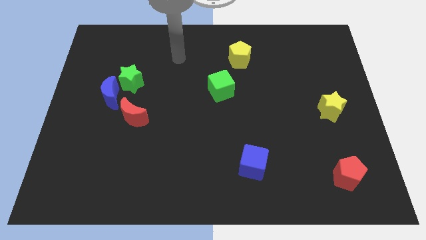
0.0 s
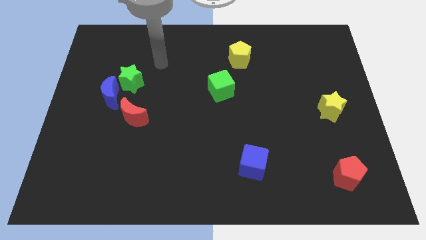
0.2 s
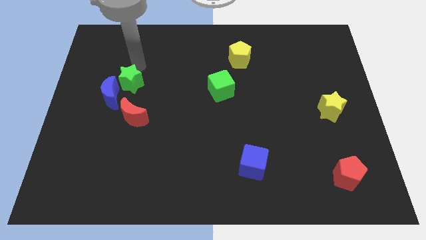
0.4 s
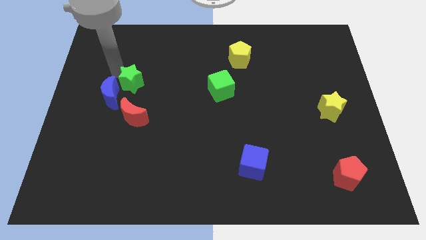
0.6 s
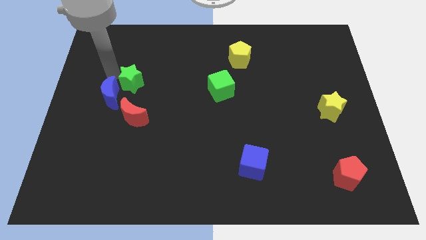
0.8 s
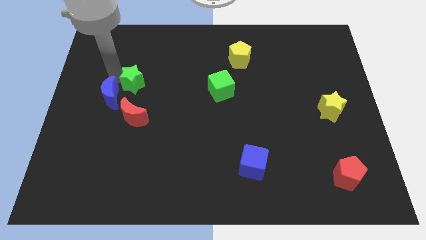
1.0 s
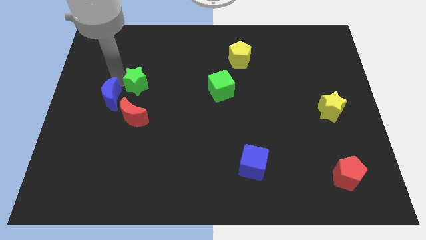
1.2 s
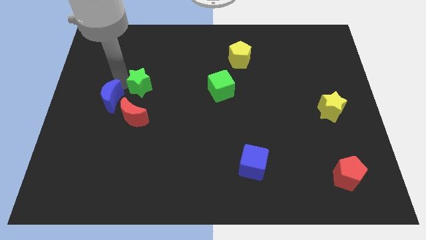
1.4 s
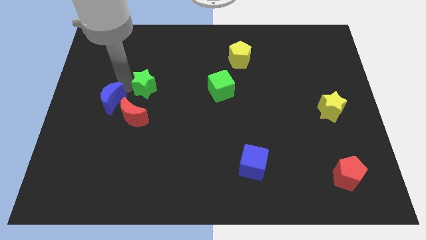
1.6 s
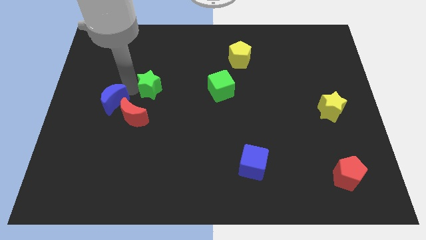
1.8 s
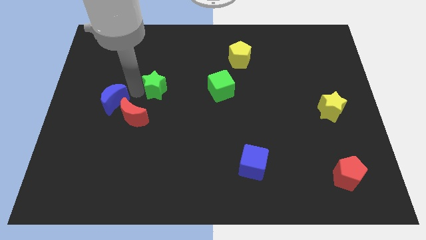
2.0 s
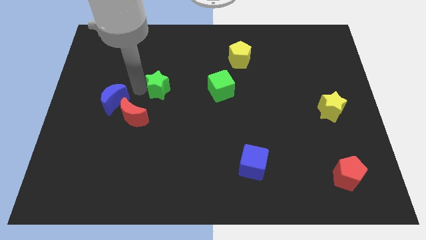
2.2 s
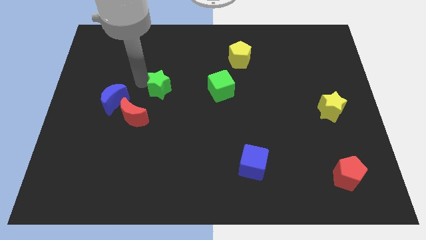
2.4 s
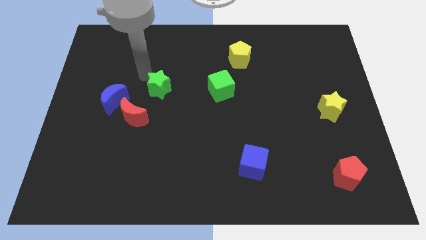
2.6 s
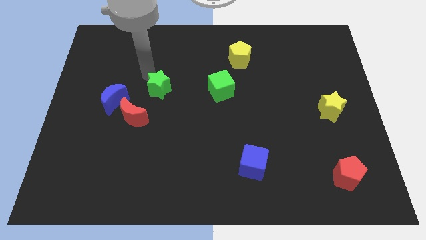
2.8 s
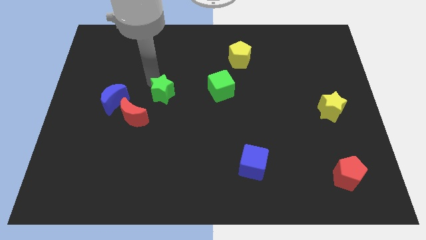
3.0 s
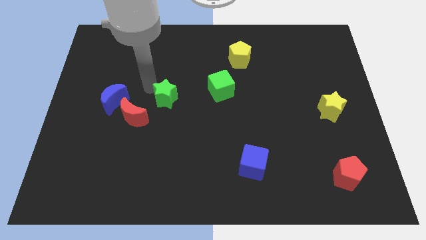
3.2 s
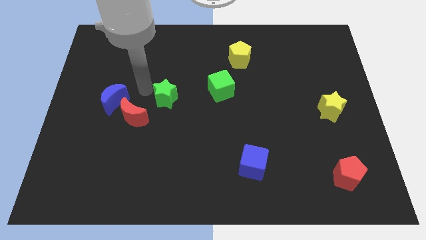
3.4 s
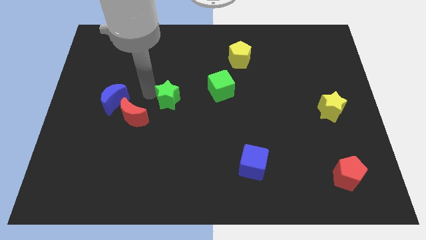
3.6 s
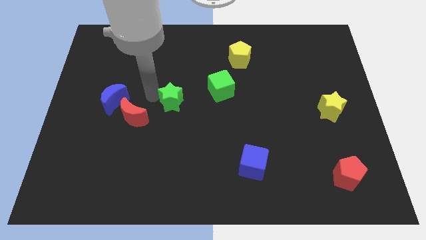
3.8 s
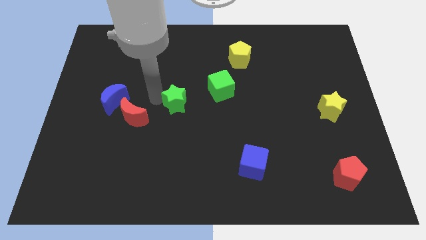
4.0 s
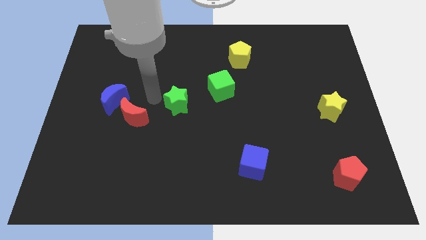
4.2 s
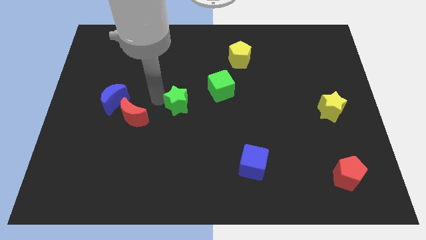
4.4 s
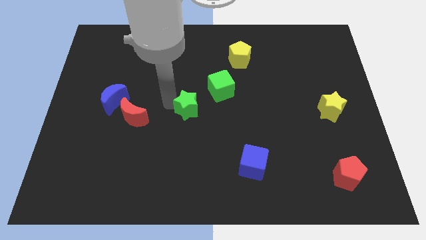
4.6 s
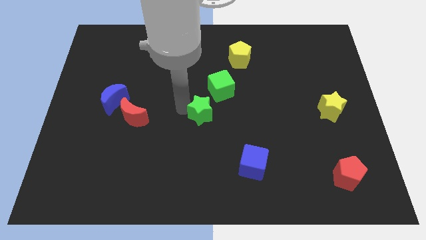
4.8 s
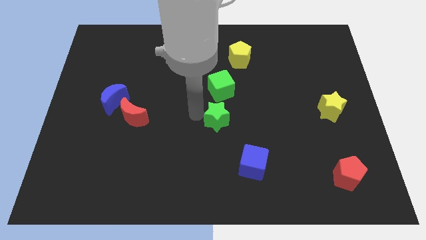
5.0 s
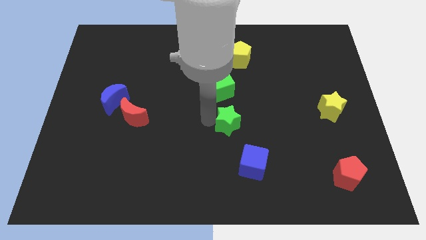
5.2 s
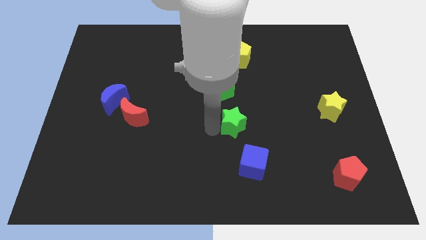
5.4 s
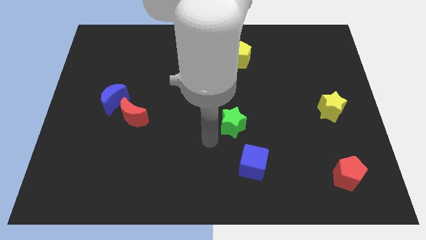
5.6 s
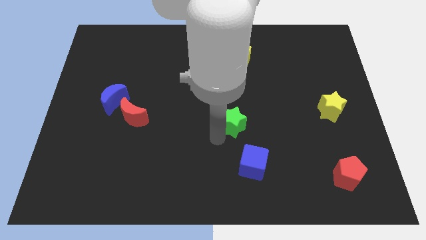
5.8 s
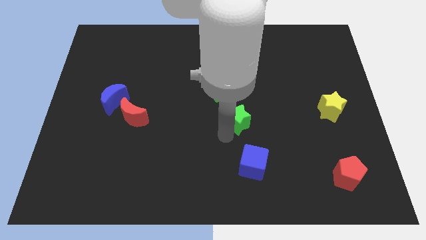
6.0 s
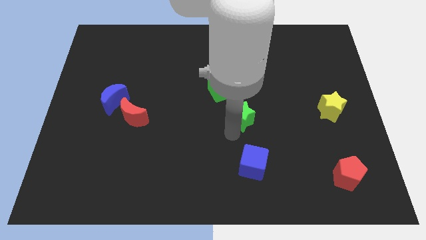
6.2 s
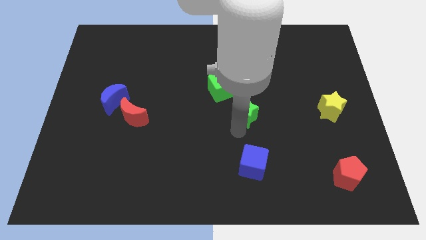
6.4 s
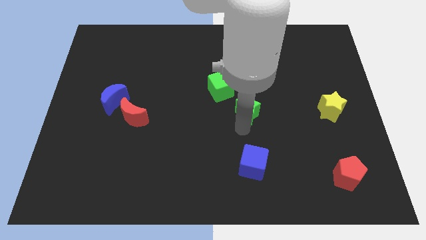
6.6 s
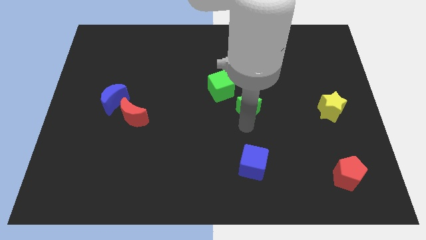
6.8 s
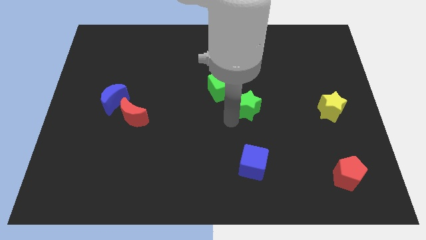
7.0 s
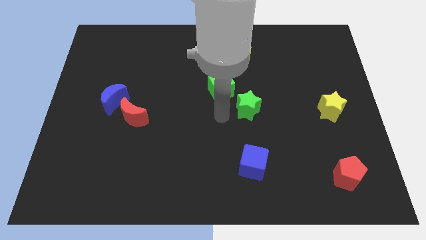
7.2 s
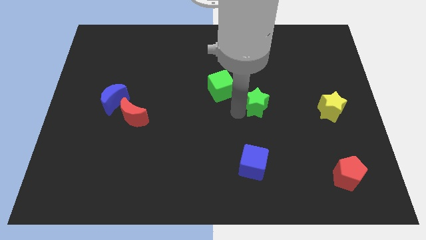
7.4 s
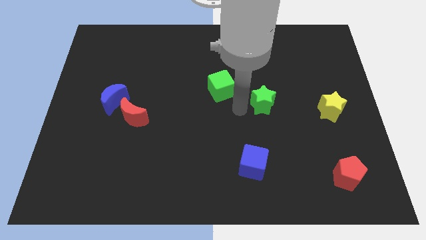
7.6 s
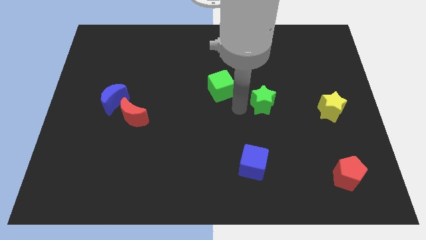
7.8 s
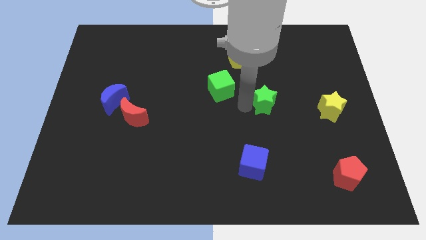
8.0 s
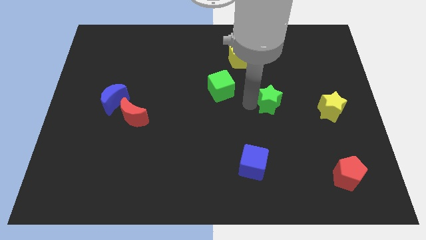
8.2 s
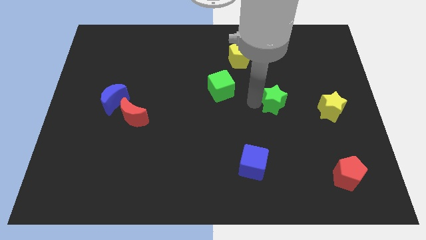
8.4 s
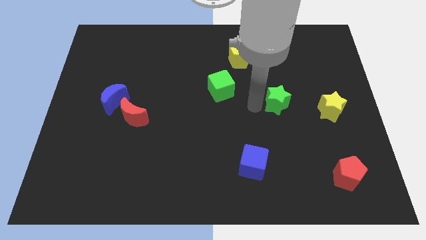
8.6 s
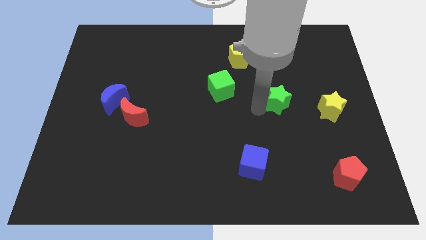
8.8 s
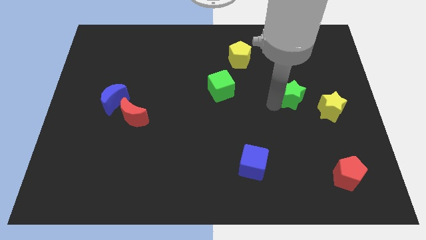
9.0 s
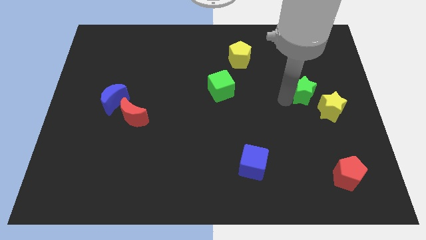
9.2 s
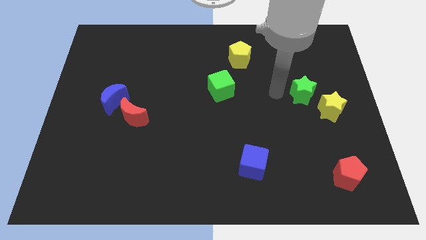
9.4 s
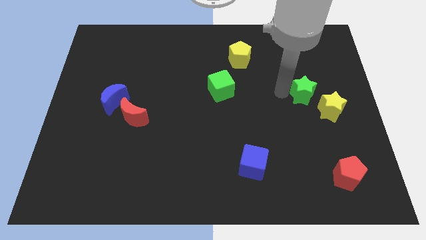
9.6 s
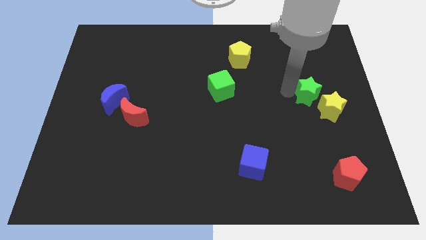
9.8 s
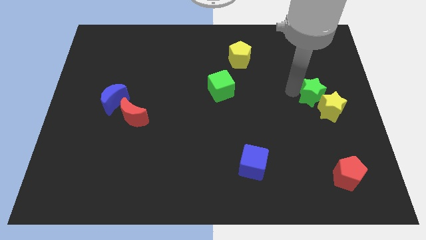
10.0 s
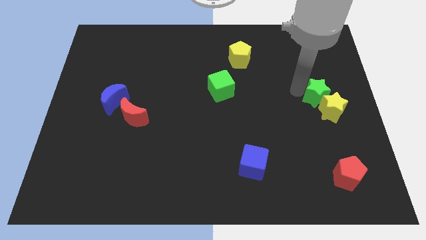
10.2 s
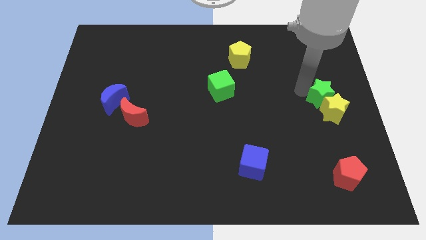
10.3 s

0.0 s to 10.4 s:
slide the green star to the right side of the board

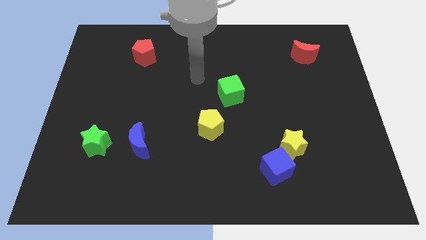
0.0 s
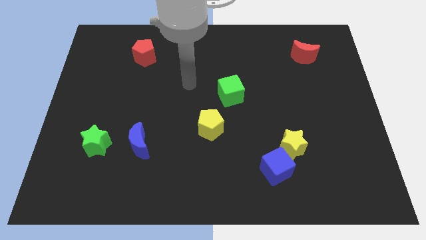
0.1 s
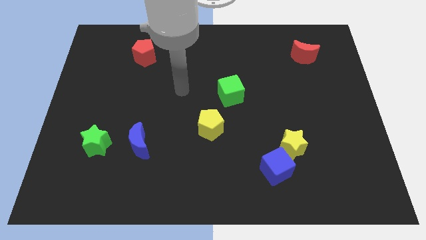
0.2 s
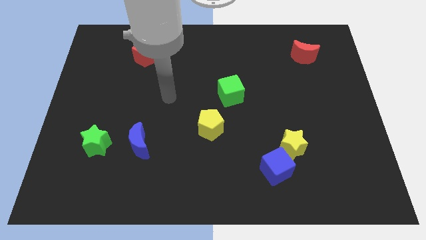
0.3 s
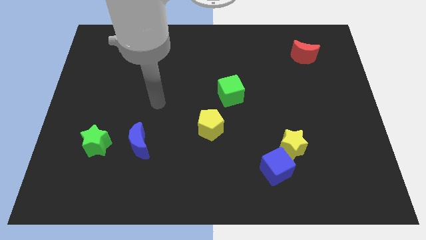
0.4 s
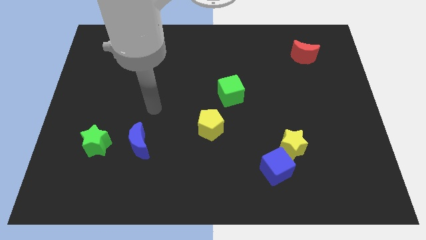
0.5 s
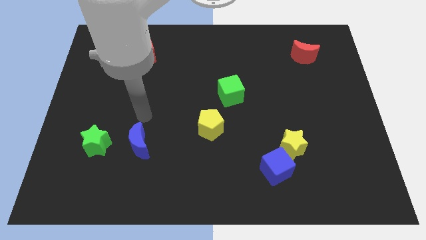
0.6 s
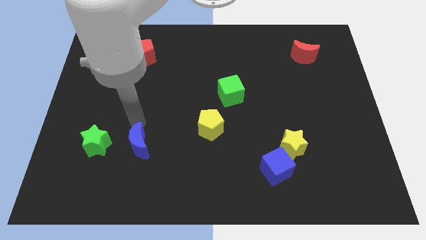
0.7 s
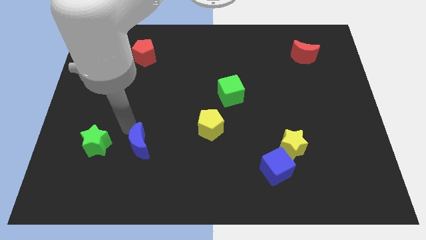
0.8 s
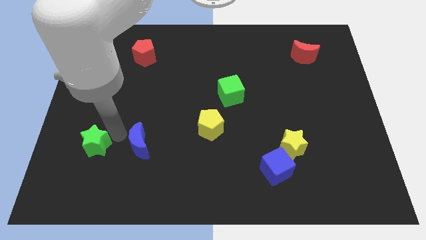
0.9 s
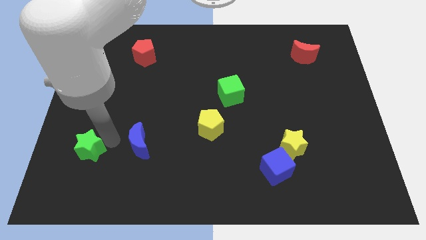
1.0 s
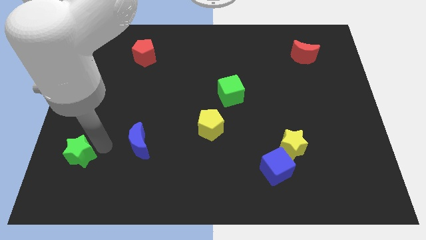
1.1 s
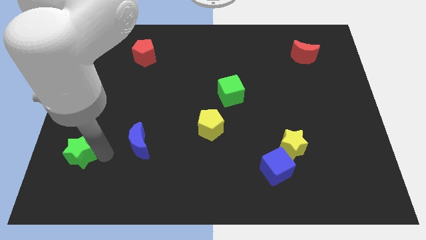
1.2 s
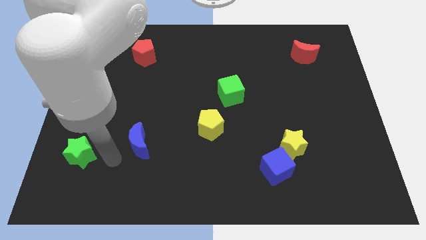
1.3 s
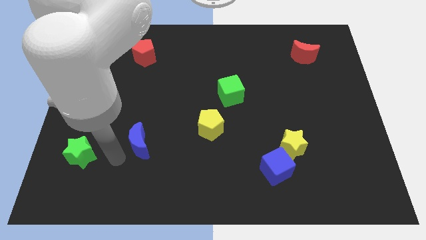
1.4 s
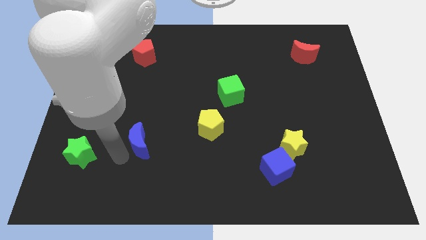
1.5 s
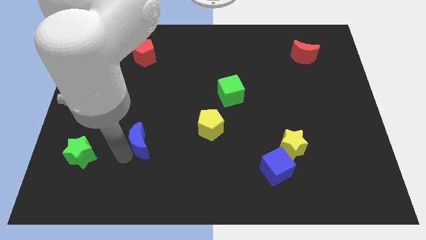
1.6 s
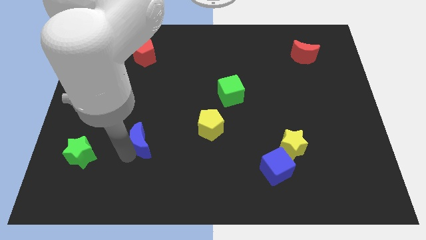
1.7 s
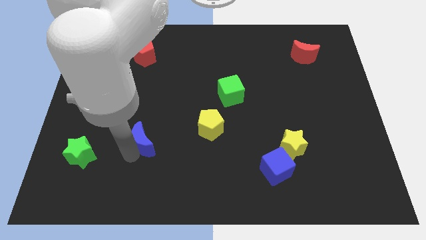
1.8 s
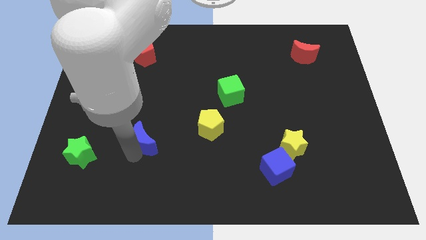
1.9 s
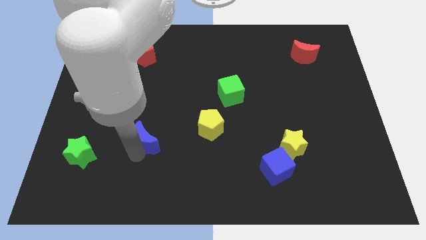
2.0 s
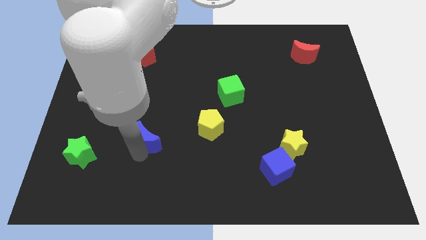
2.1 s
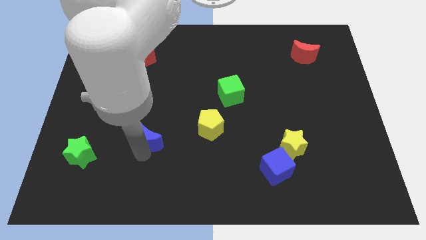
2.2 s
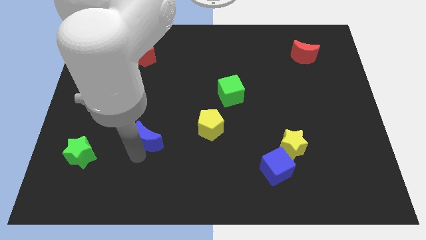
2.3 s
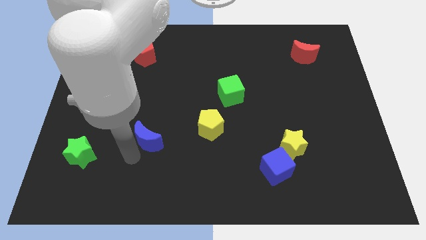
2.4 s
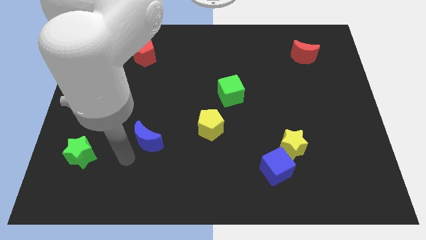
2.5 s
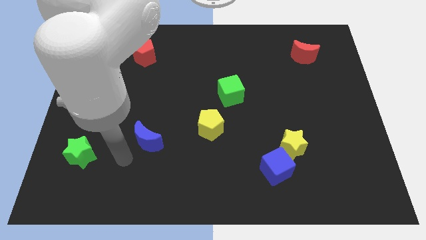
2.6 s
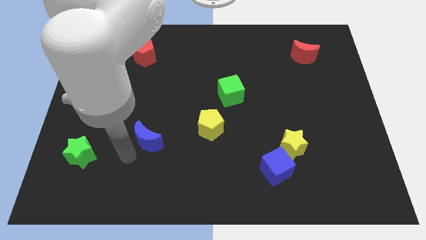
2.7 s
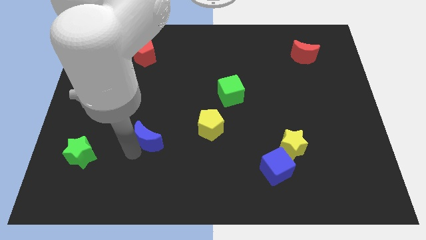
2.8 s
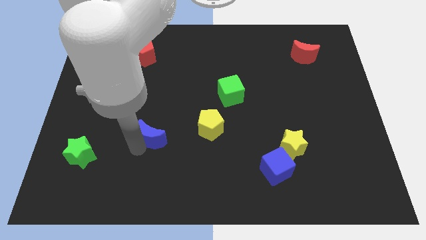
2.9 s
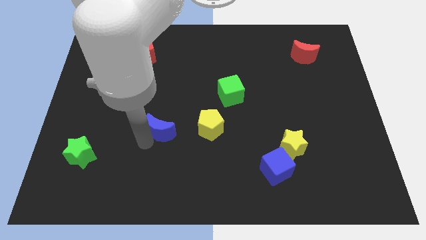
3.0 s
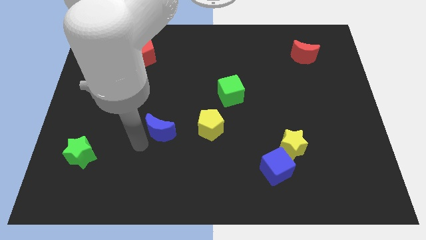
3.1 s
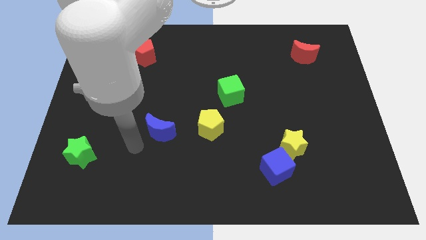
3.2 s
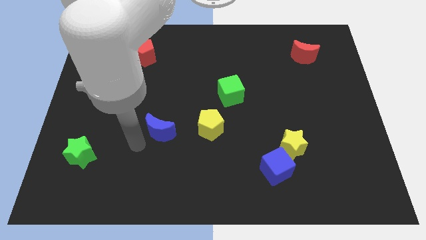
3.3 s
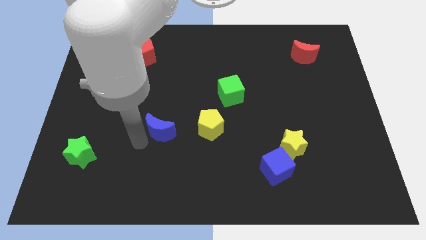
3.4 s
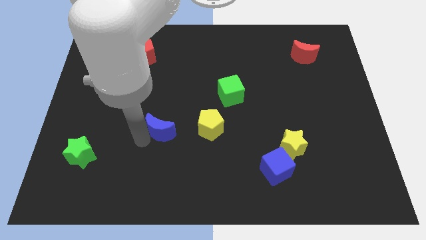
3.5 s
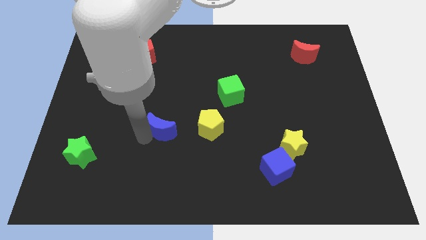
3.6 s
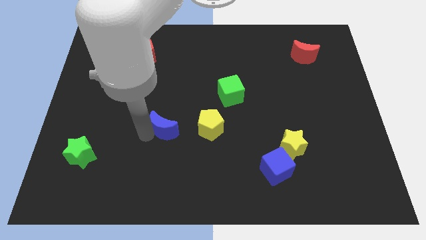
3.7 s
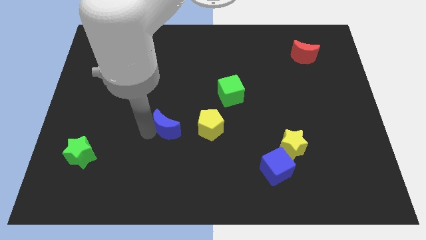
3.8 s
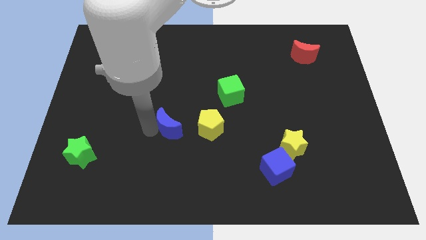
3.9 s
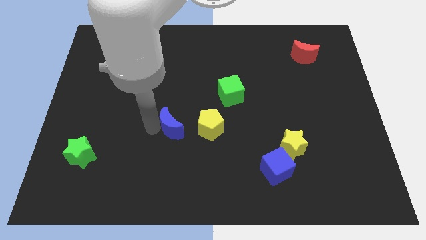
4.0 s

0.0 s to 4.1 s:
move the blue moon to the center of the board
